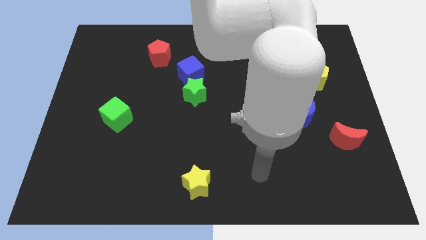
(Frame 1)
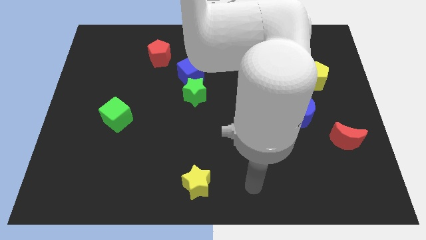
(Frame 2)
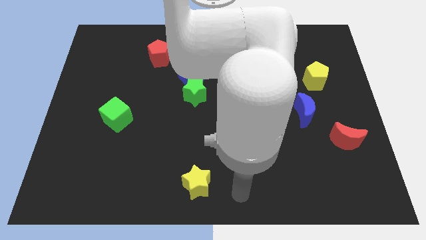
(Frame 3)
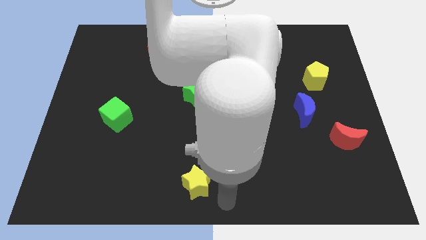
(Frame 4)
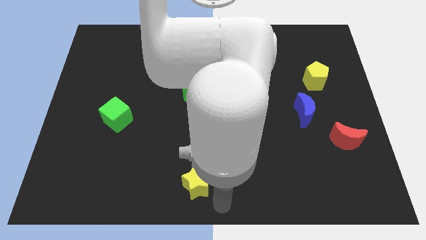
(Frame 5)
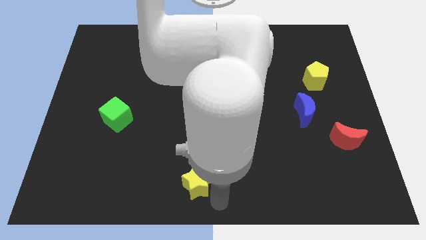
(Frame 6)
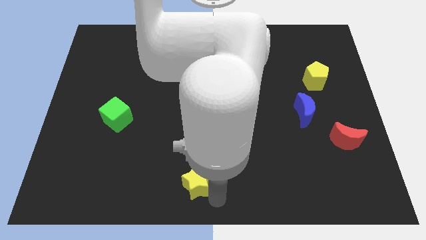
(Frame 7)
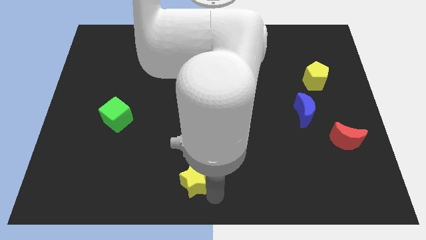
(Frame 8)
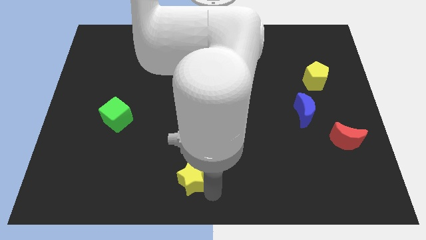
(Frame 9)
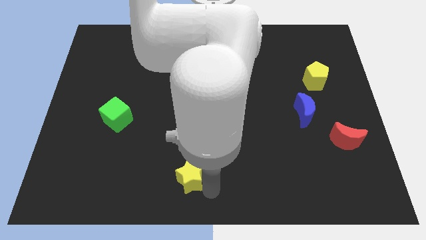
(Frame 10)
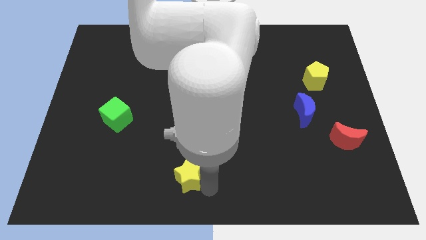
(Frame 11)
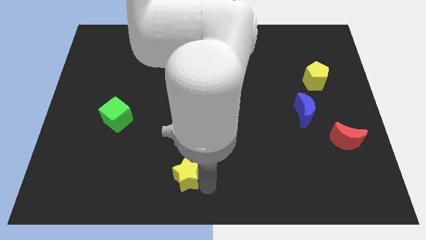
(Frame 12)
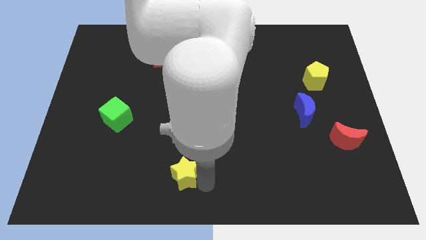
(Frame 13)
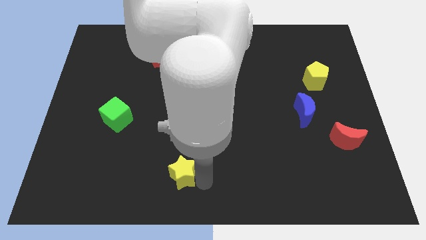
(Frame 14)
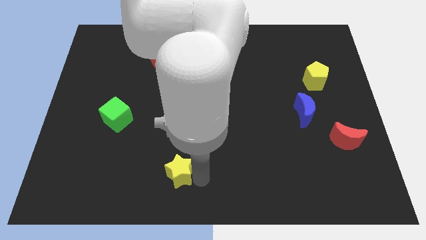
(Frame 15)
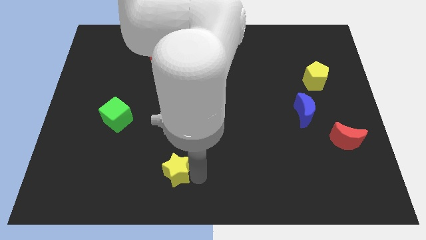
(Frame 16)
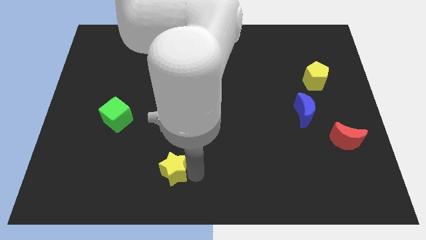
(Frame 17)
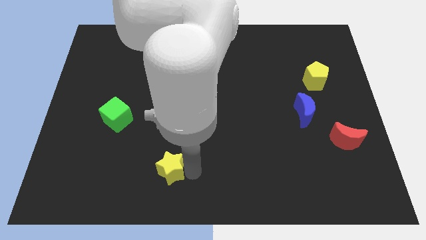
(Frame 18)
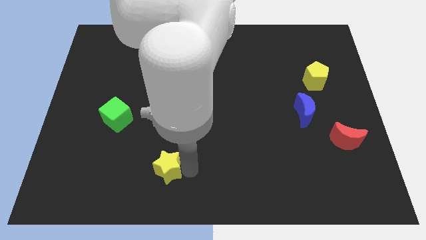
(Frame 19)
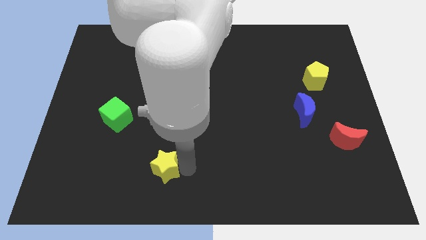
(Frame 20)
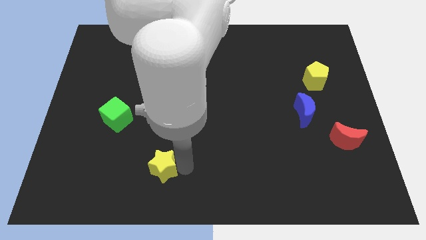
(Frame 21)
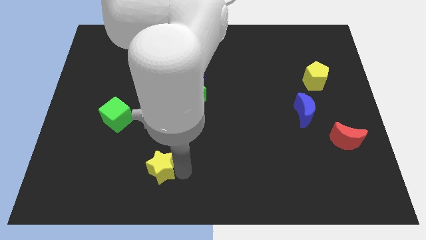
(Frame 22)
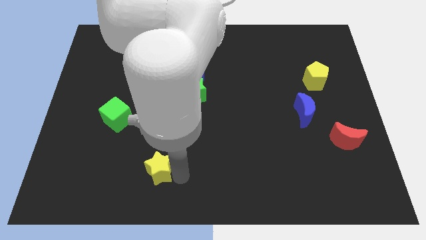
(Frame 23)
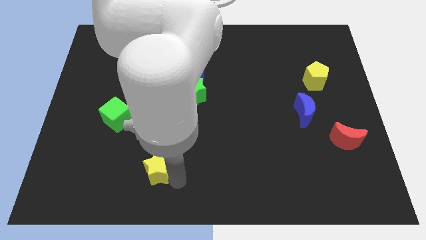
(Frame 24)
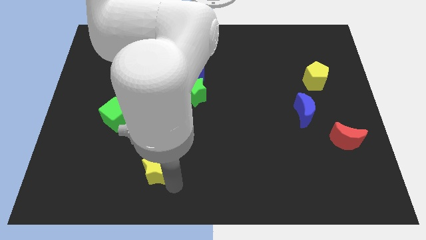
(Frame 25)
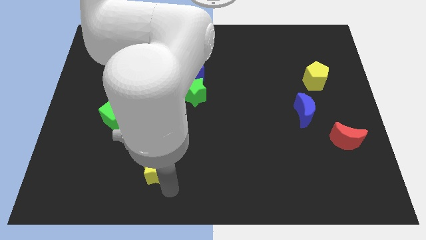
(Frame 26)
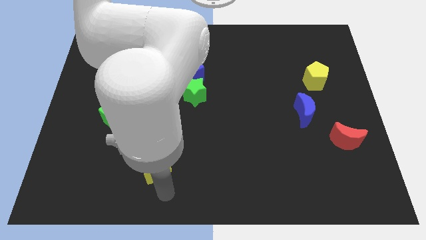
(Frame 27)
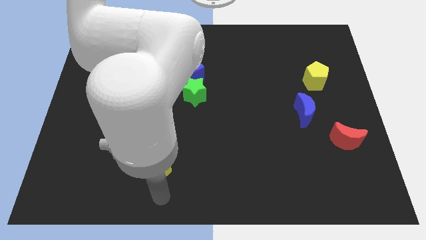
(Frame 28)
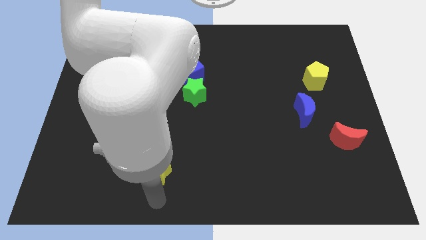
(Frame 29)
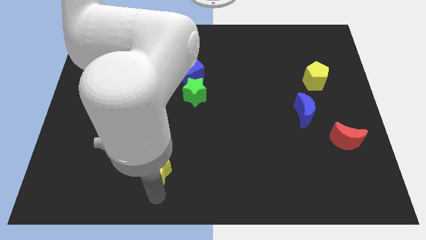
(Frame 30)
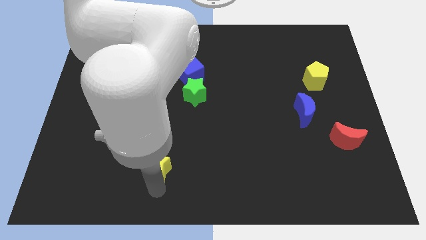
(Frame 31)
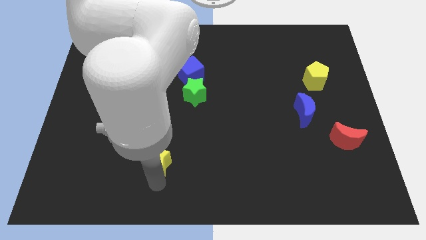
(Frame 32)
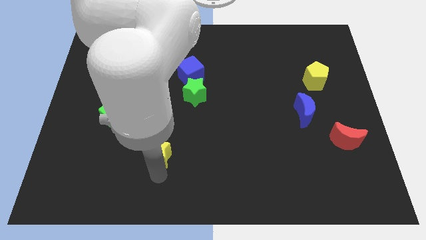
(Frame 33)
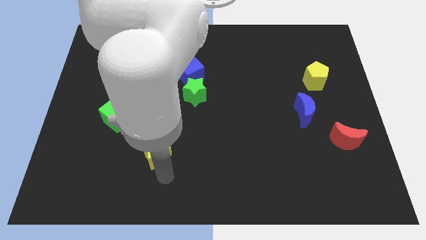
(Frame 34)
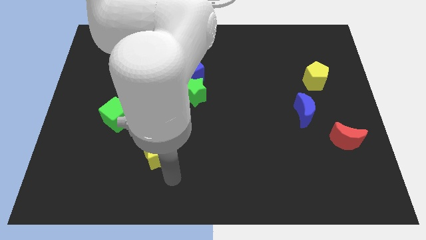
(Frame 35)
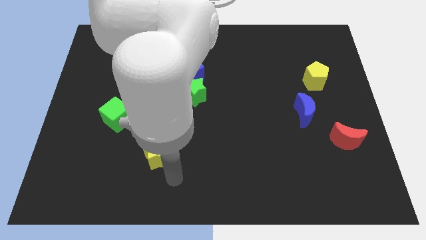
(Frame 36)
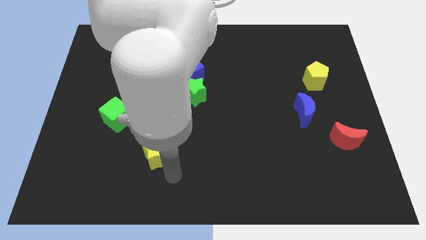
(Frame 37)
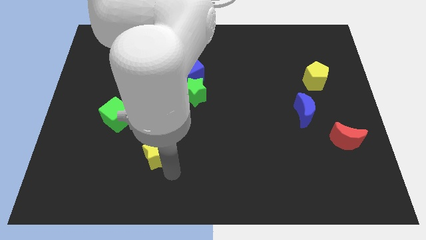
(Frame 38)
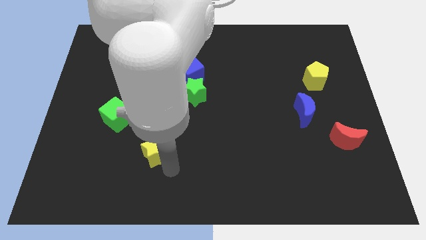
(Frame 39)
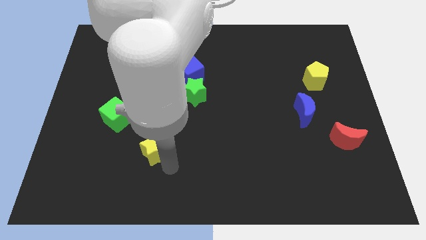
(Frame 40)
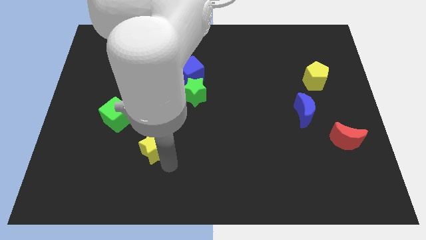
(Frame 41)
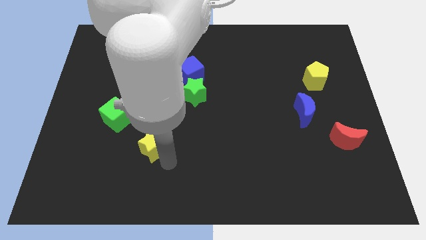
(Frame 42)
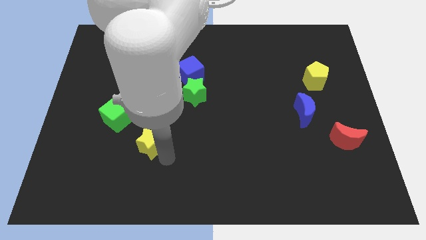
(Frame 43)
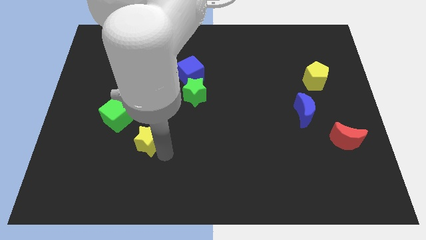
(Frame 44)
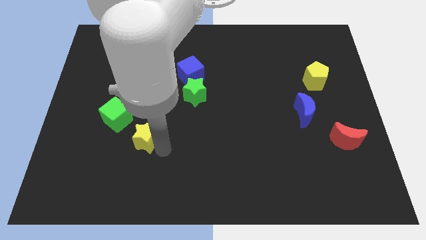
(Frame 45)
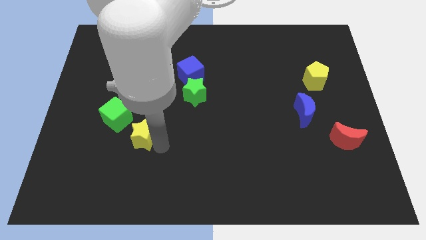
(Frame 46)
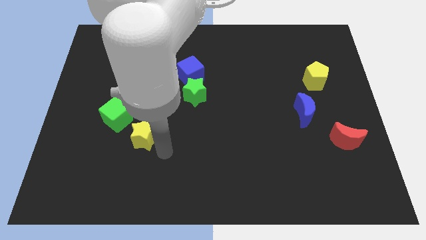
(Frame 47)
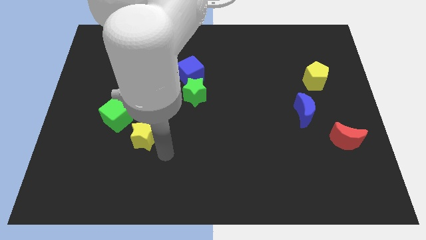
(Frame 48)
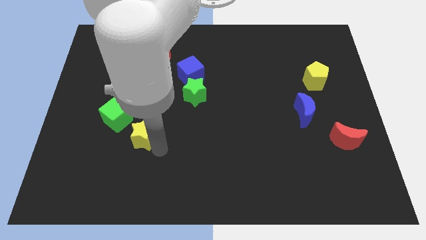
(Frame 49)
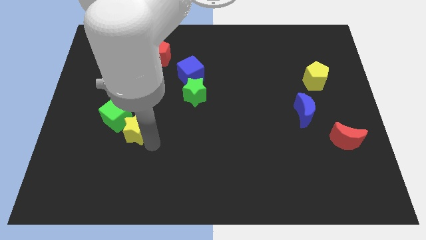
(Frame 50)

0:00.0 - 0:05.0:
slide the yellow star to the green cube

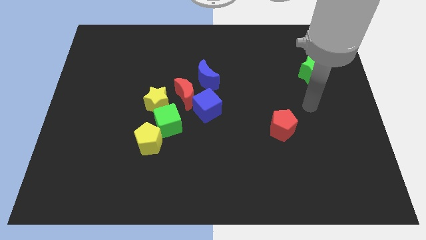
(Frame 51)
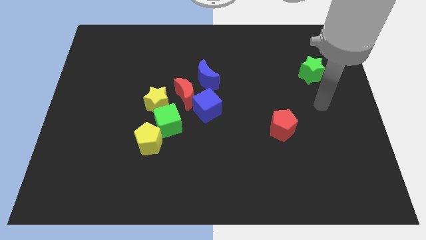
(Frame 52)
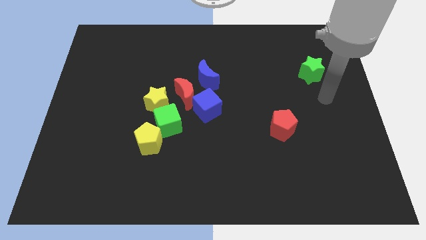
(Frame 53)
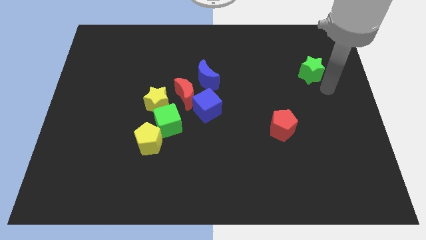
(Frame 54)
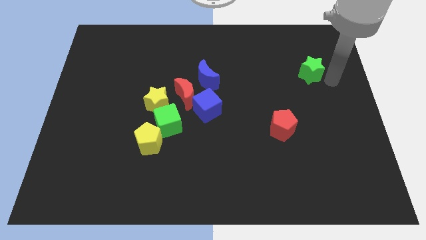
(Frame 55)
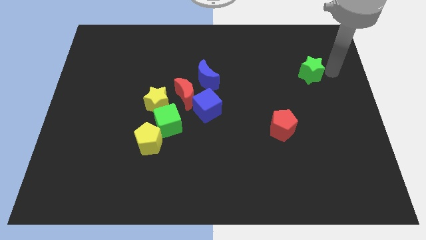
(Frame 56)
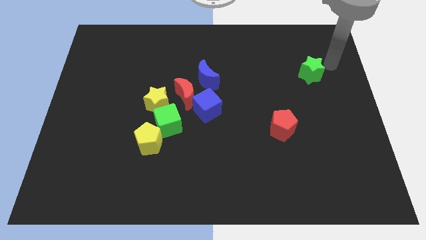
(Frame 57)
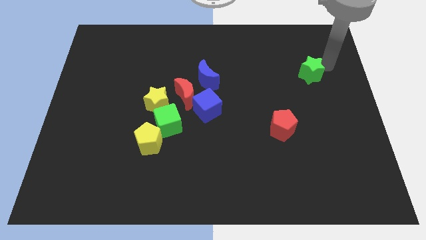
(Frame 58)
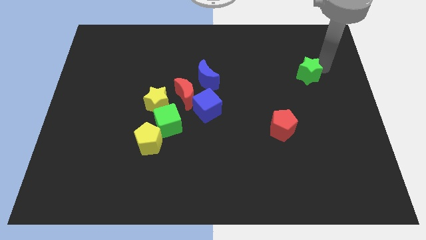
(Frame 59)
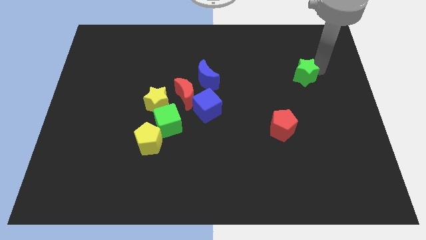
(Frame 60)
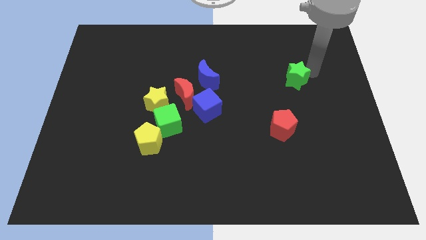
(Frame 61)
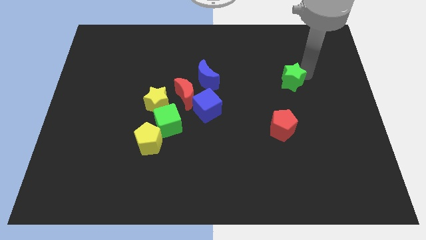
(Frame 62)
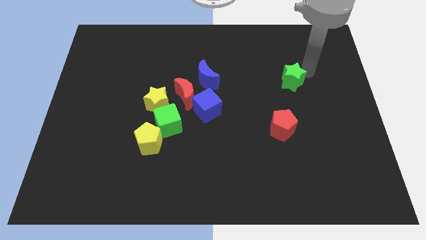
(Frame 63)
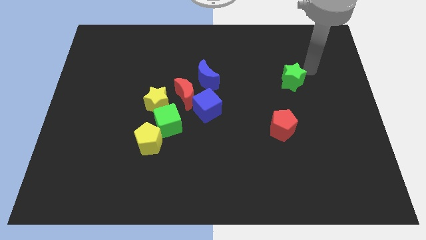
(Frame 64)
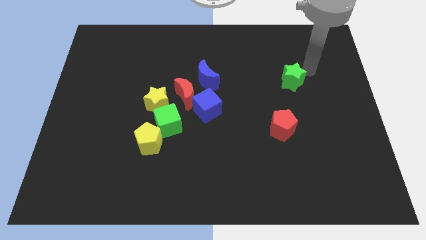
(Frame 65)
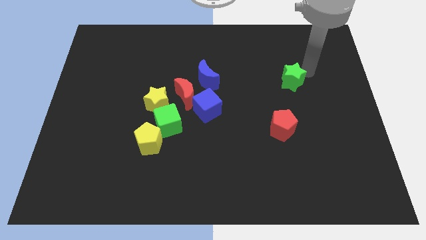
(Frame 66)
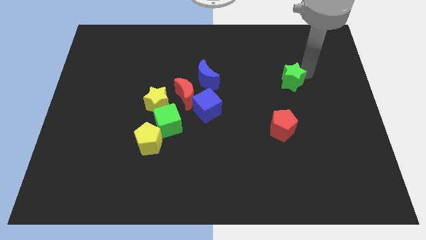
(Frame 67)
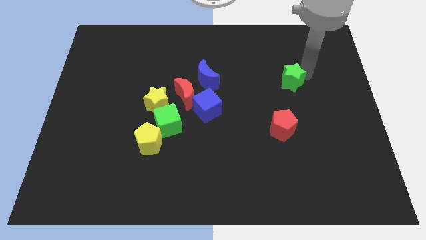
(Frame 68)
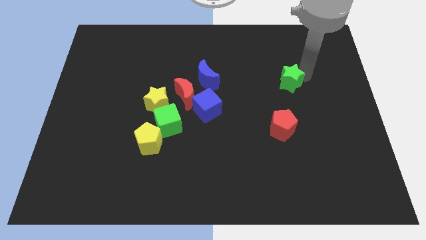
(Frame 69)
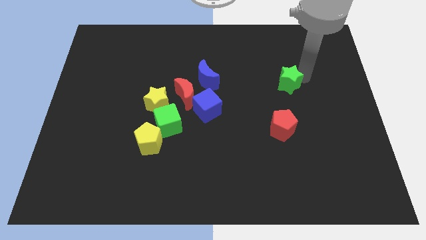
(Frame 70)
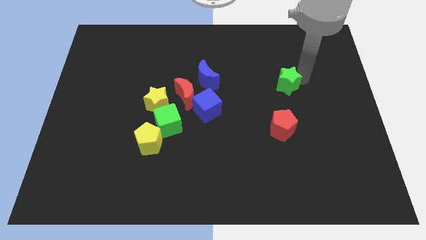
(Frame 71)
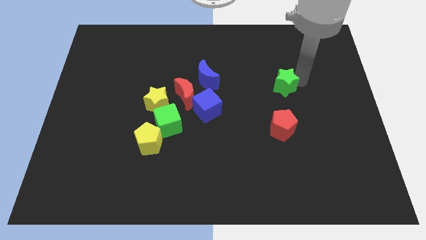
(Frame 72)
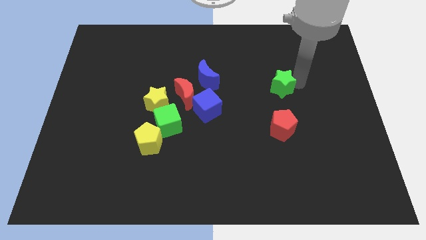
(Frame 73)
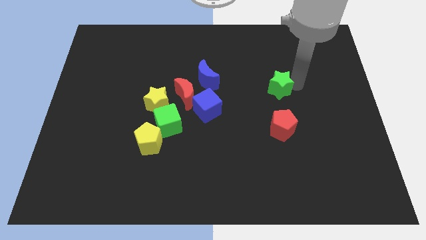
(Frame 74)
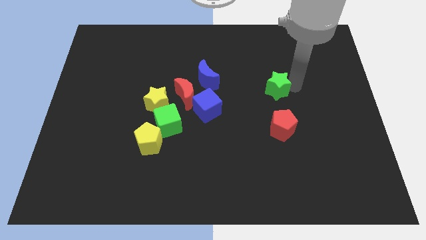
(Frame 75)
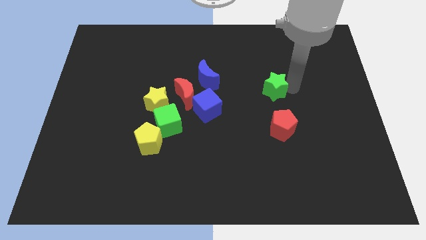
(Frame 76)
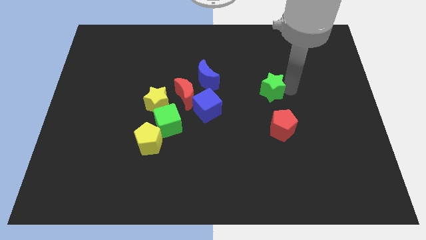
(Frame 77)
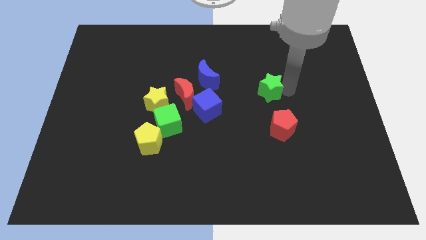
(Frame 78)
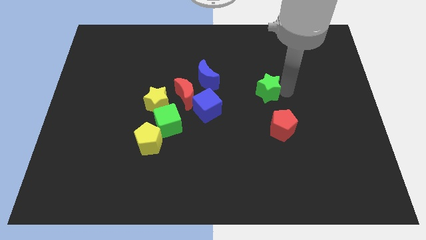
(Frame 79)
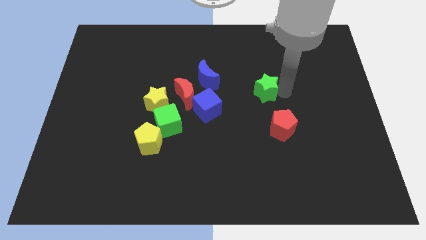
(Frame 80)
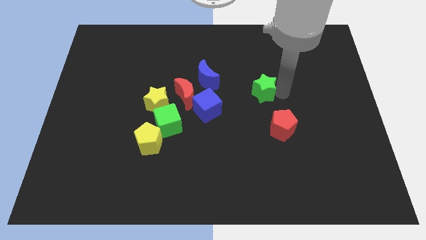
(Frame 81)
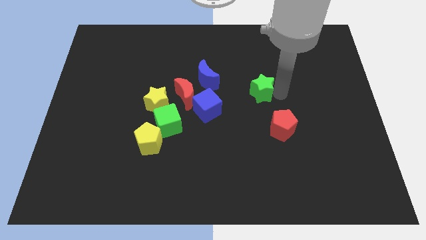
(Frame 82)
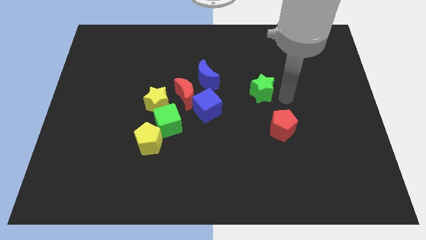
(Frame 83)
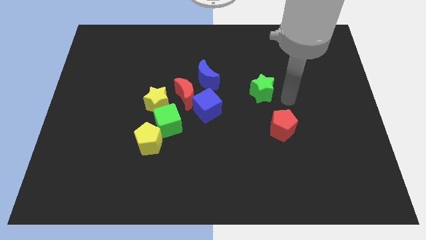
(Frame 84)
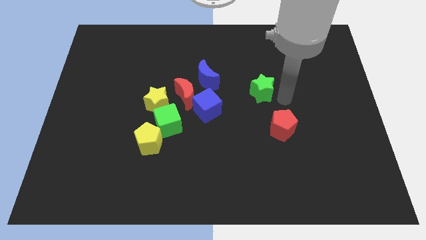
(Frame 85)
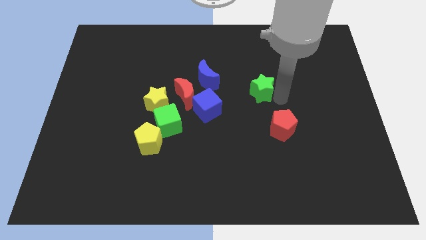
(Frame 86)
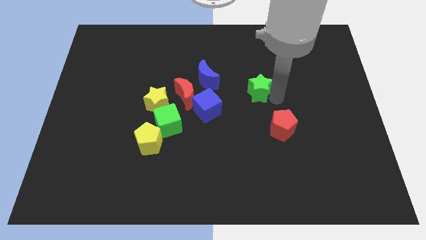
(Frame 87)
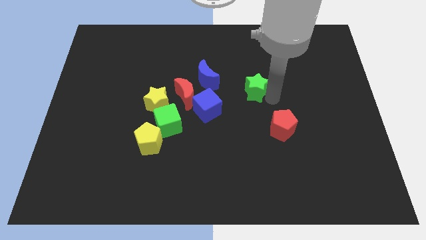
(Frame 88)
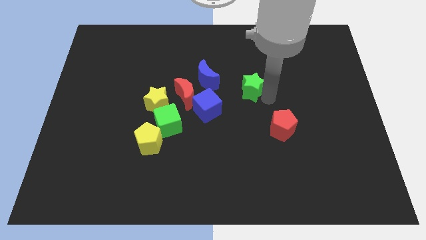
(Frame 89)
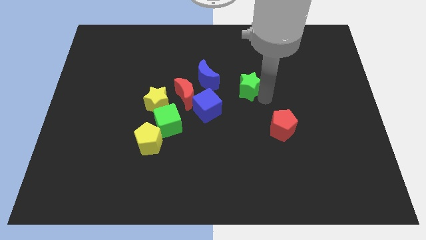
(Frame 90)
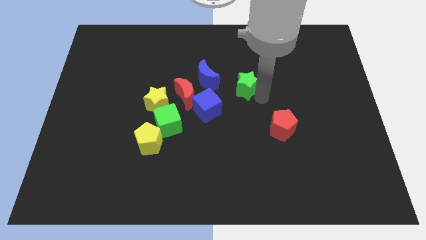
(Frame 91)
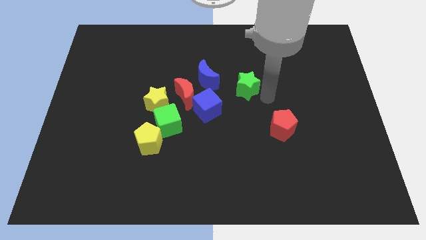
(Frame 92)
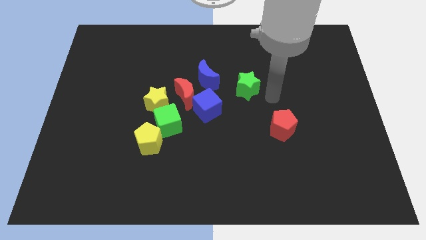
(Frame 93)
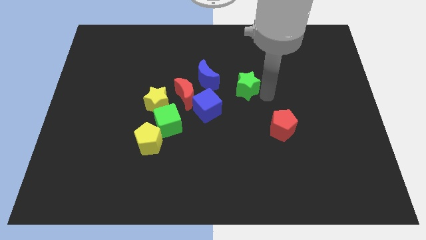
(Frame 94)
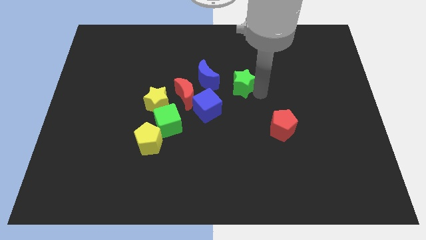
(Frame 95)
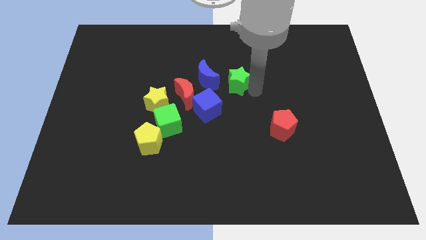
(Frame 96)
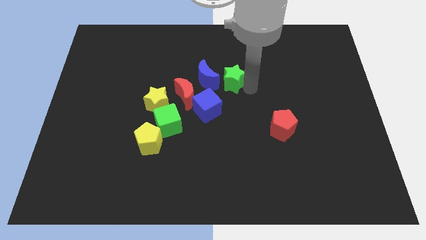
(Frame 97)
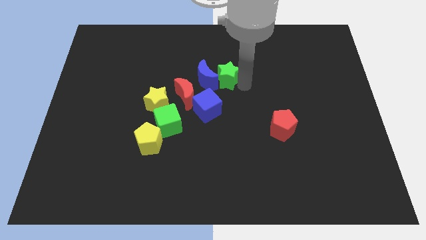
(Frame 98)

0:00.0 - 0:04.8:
put the green star to the blue moon
